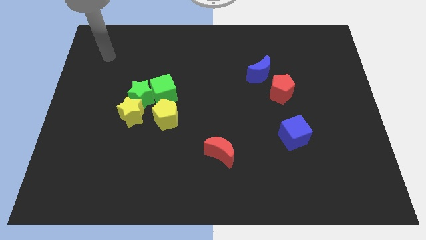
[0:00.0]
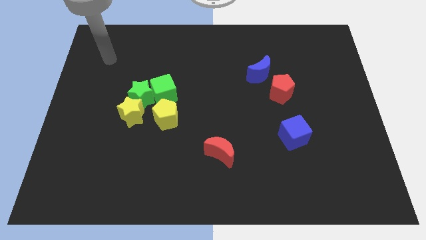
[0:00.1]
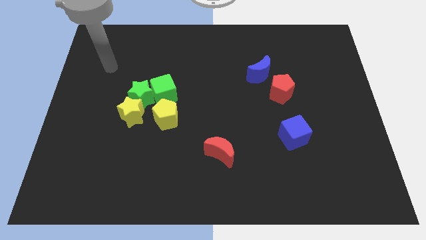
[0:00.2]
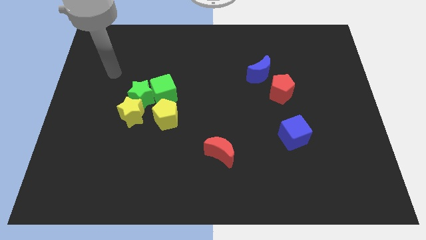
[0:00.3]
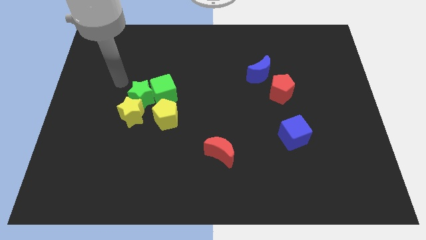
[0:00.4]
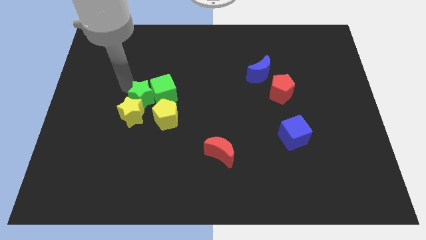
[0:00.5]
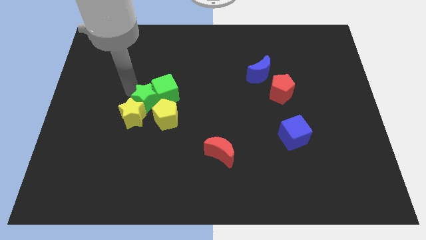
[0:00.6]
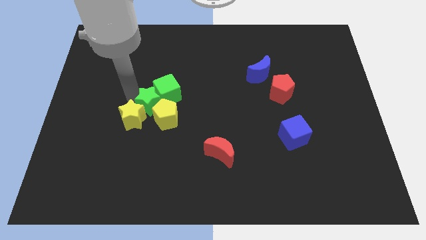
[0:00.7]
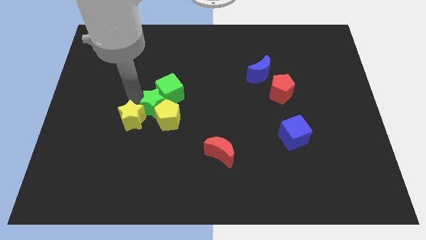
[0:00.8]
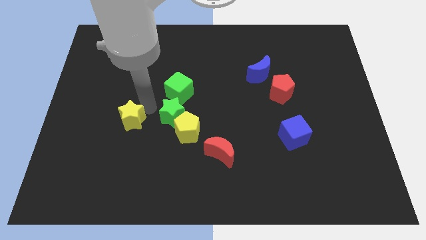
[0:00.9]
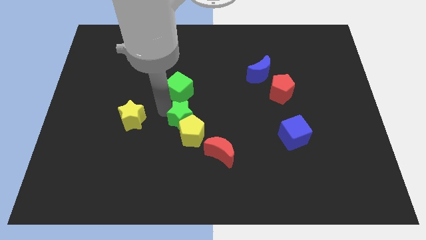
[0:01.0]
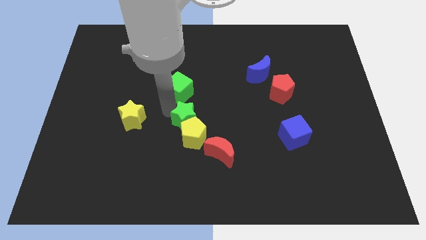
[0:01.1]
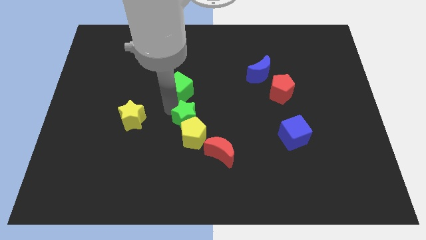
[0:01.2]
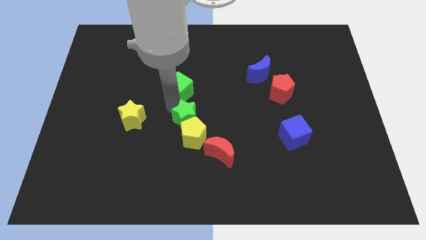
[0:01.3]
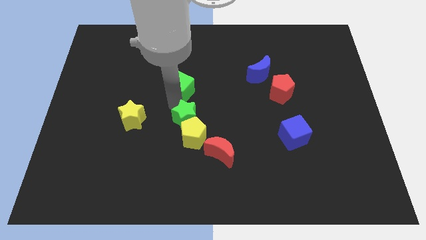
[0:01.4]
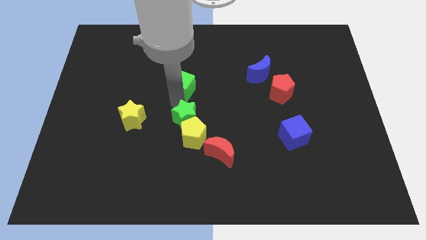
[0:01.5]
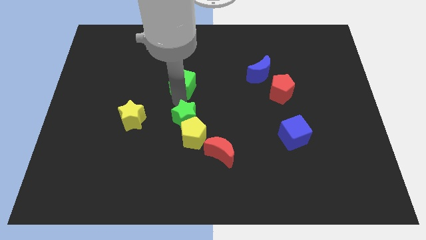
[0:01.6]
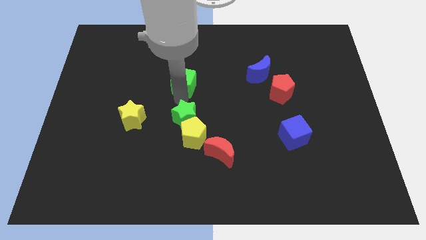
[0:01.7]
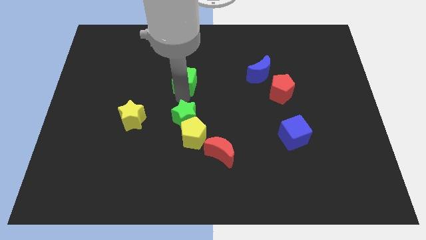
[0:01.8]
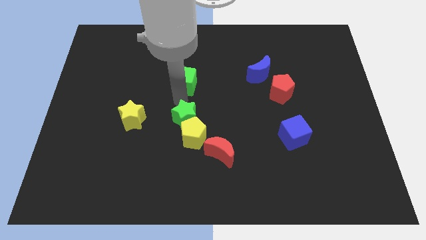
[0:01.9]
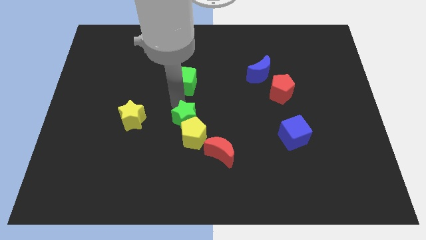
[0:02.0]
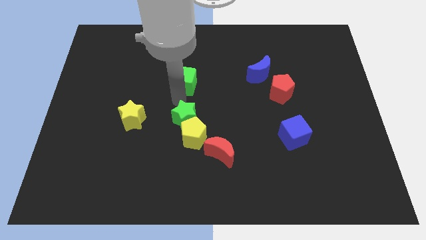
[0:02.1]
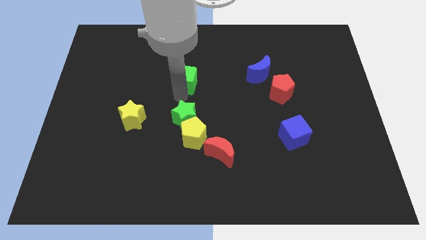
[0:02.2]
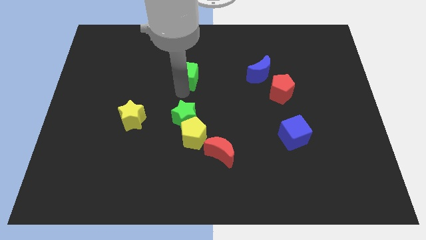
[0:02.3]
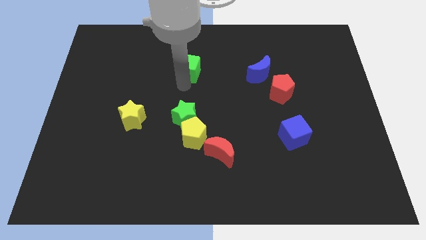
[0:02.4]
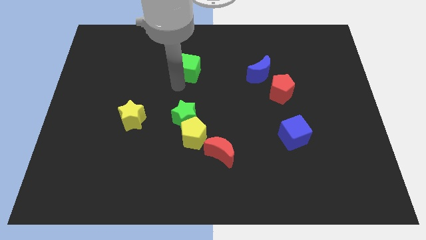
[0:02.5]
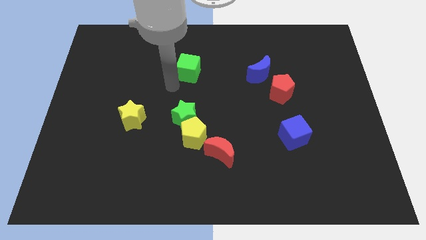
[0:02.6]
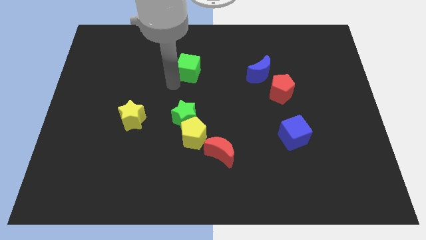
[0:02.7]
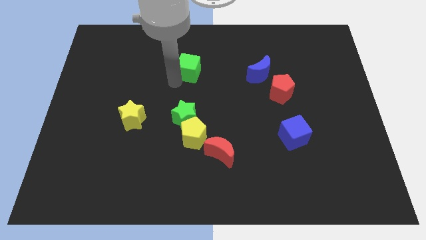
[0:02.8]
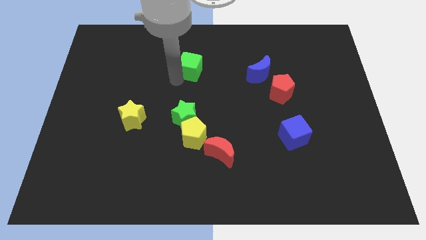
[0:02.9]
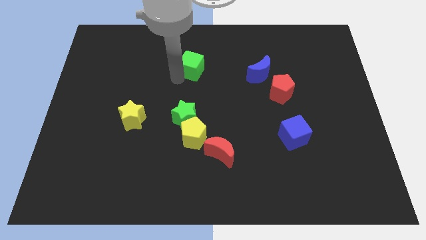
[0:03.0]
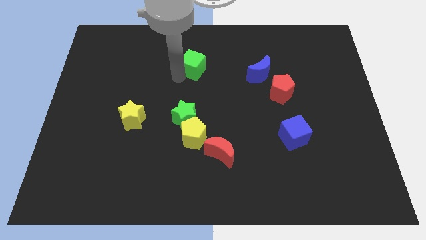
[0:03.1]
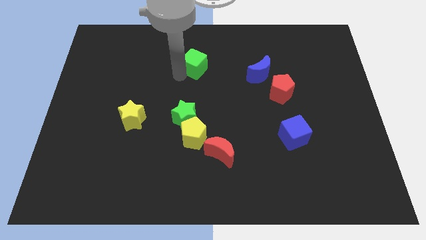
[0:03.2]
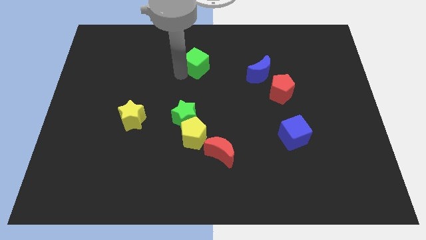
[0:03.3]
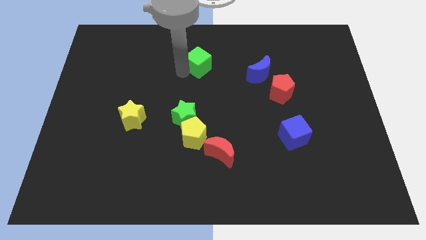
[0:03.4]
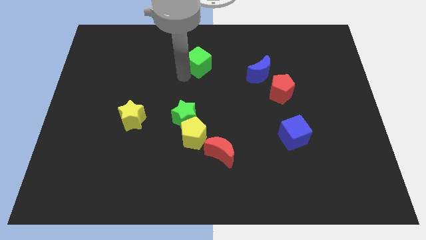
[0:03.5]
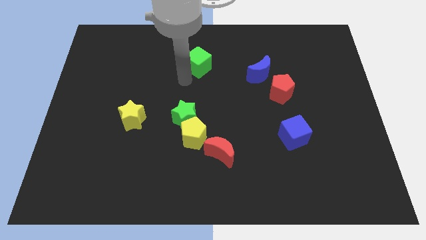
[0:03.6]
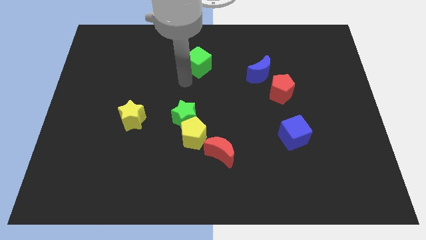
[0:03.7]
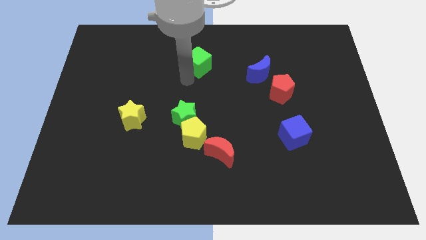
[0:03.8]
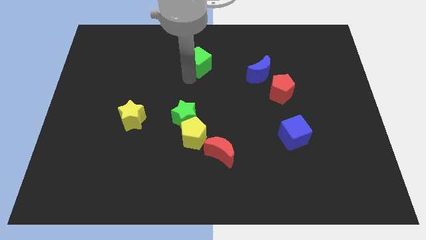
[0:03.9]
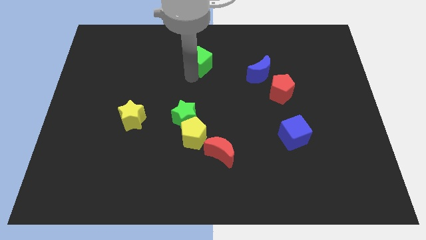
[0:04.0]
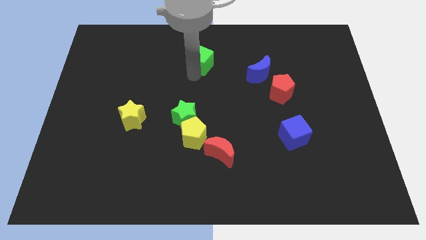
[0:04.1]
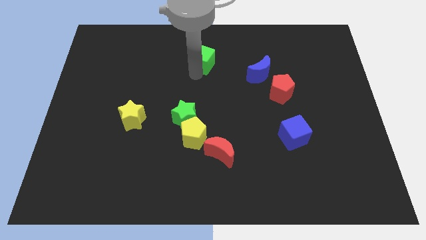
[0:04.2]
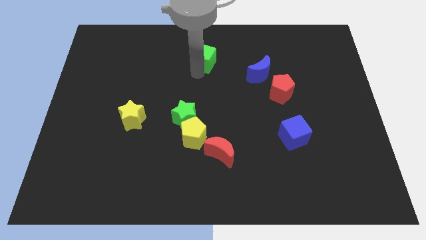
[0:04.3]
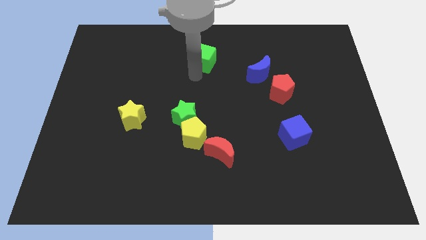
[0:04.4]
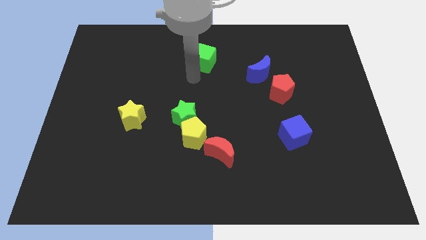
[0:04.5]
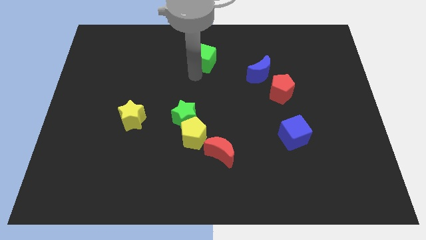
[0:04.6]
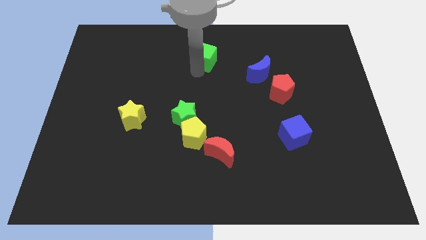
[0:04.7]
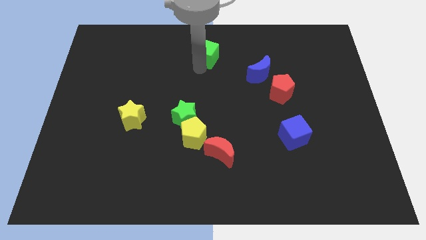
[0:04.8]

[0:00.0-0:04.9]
push the green cube to the top
